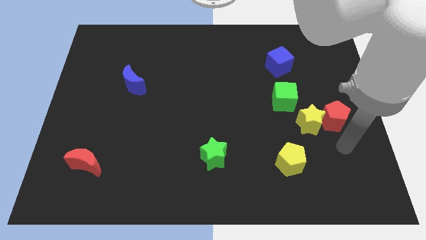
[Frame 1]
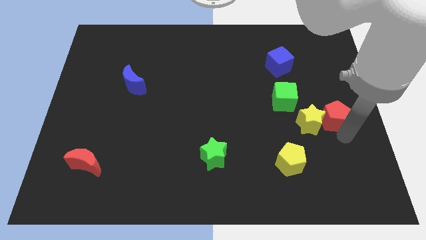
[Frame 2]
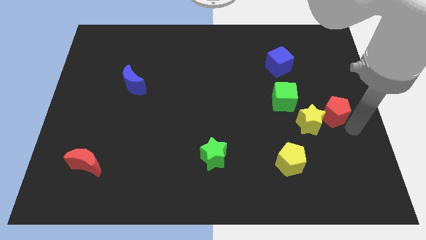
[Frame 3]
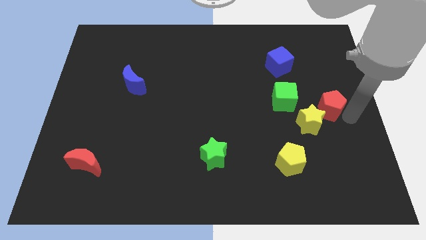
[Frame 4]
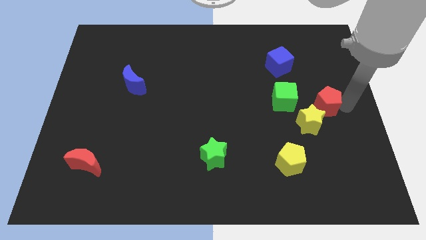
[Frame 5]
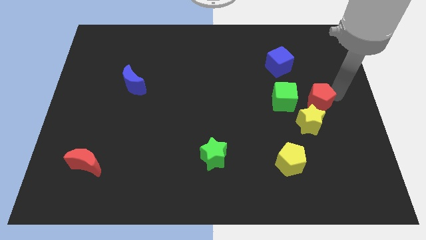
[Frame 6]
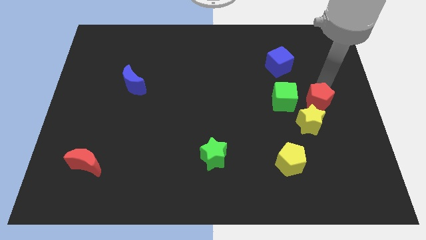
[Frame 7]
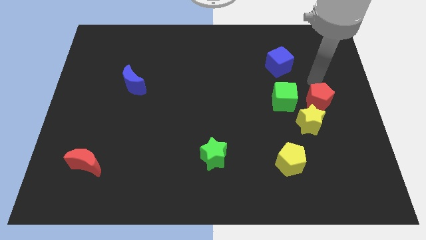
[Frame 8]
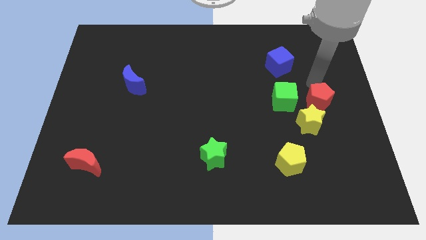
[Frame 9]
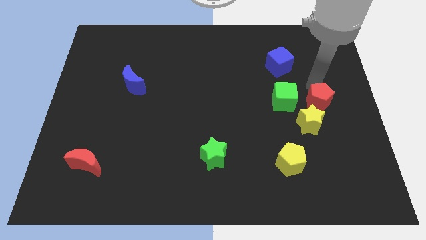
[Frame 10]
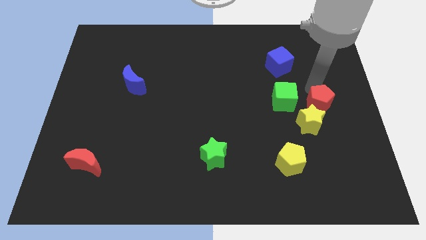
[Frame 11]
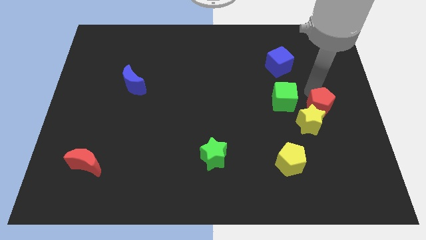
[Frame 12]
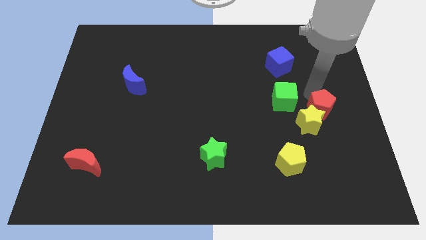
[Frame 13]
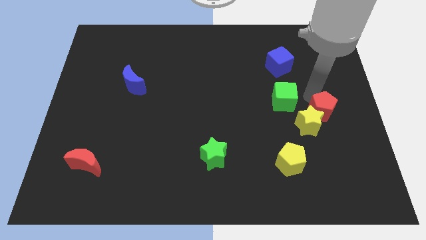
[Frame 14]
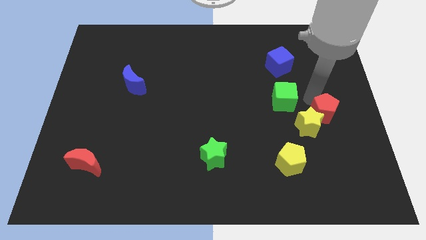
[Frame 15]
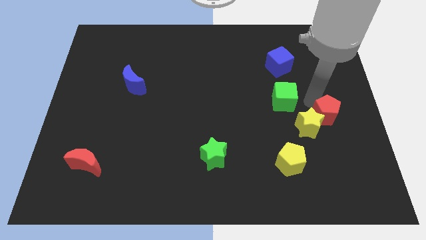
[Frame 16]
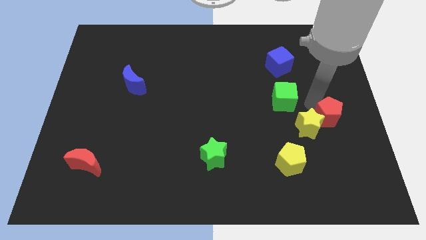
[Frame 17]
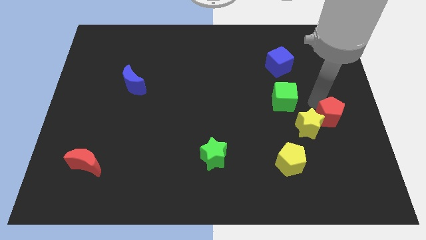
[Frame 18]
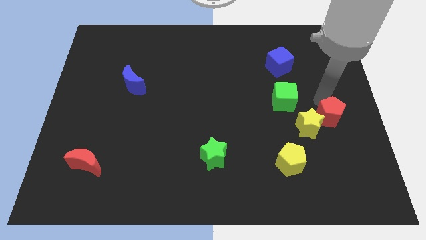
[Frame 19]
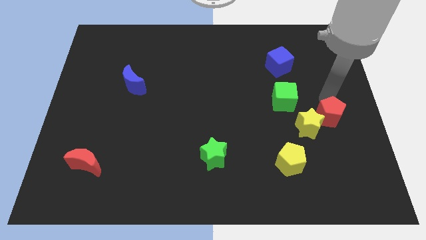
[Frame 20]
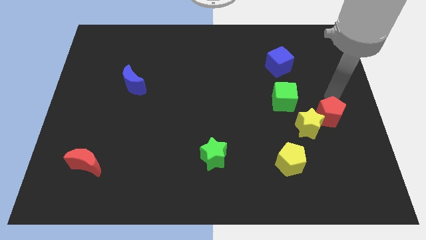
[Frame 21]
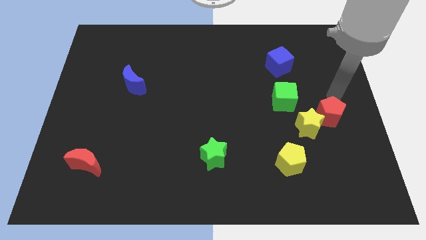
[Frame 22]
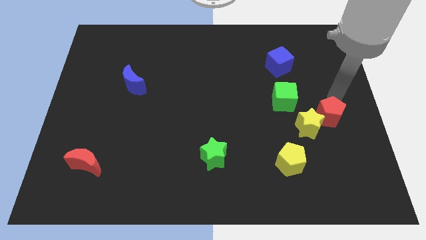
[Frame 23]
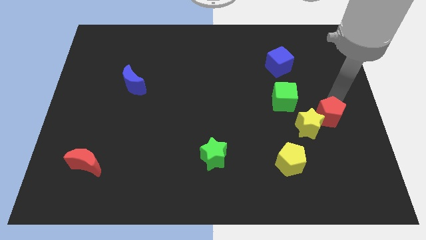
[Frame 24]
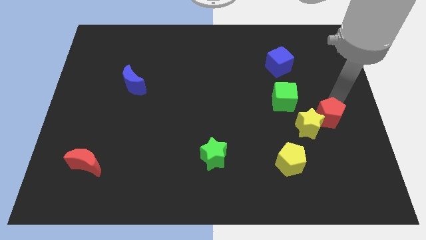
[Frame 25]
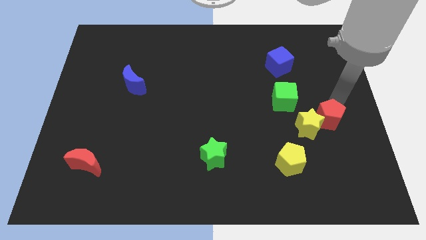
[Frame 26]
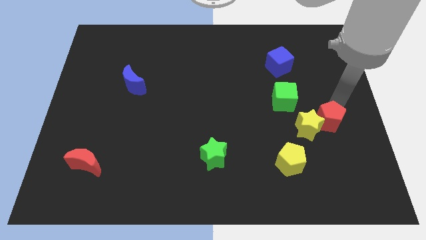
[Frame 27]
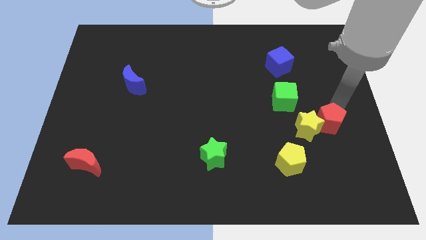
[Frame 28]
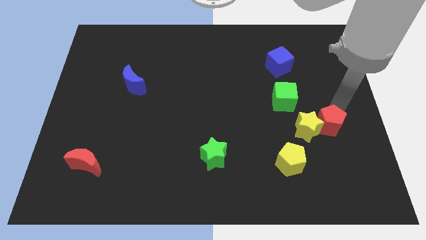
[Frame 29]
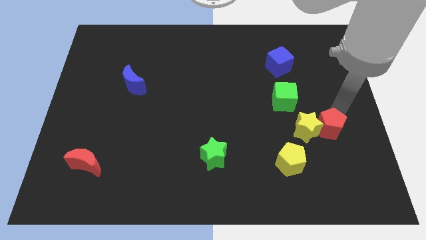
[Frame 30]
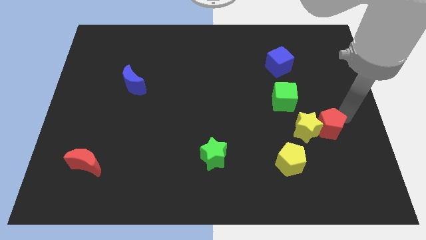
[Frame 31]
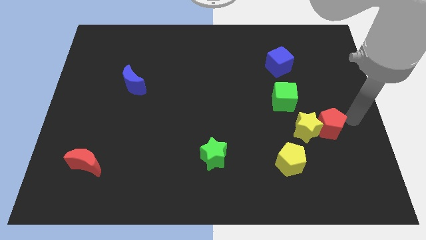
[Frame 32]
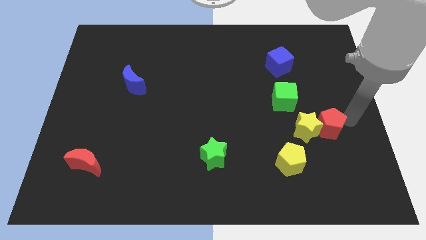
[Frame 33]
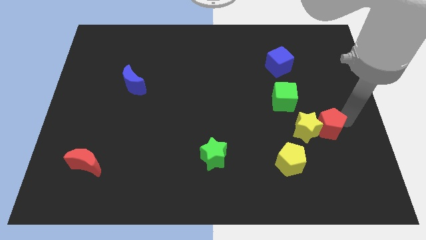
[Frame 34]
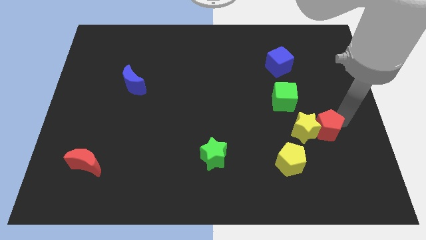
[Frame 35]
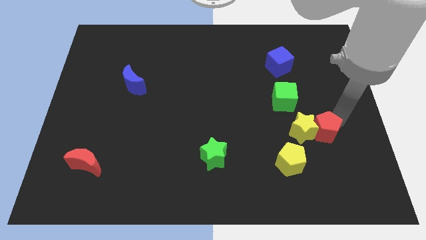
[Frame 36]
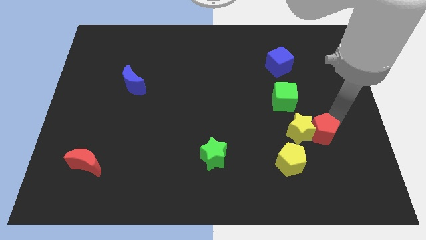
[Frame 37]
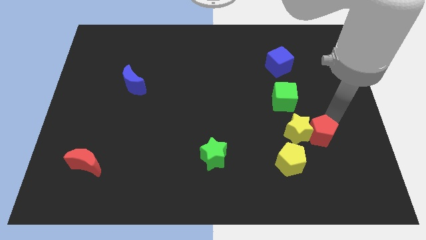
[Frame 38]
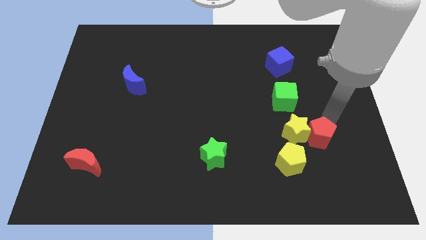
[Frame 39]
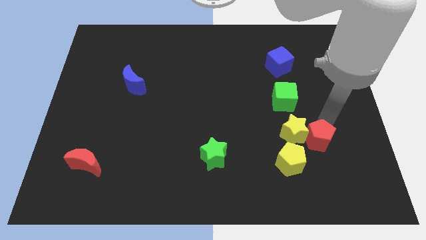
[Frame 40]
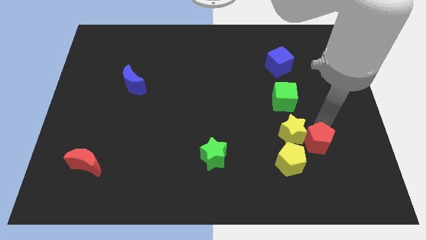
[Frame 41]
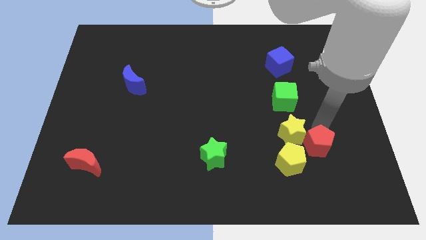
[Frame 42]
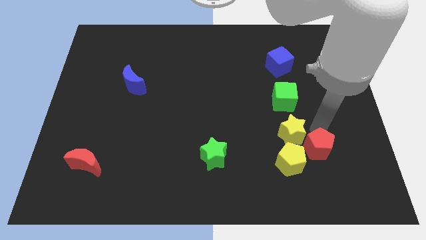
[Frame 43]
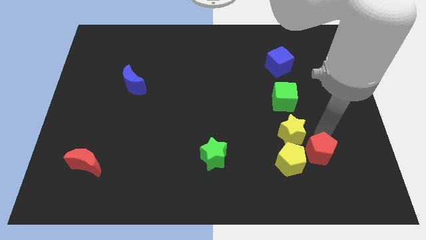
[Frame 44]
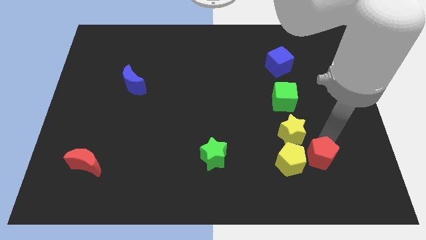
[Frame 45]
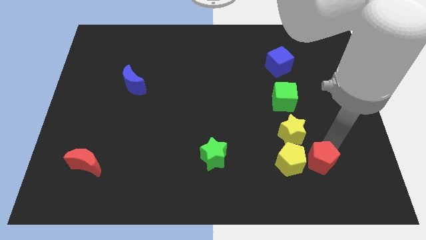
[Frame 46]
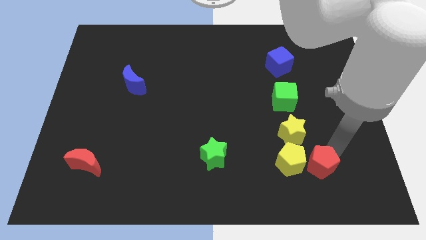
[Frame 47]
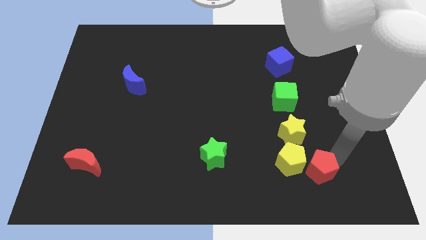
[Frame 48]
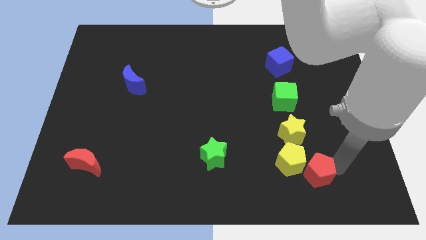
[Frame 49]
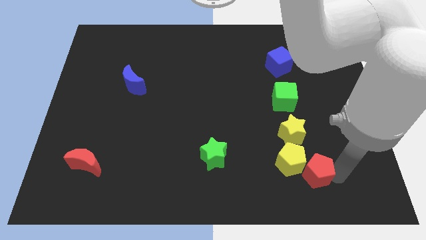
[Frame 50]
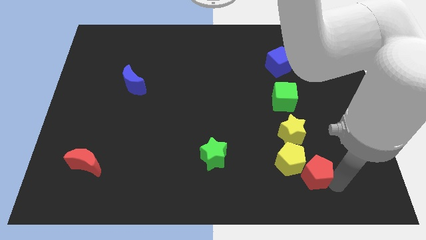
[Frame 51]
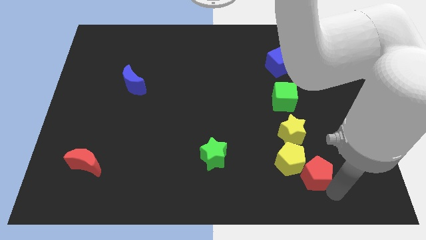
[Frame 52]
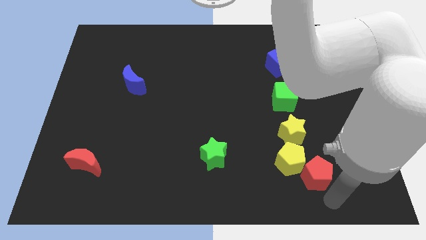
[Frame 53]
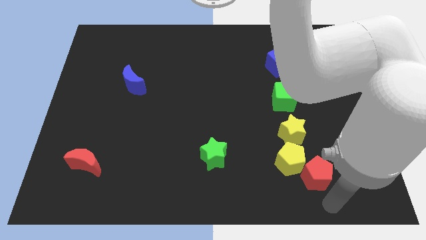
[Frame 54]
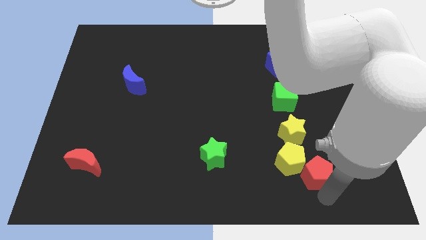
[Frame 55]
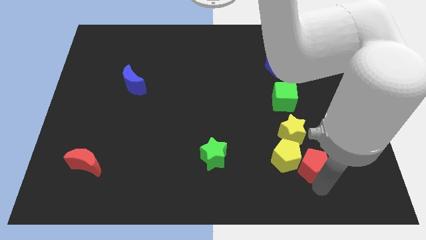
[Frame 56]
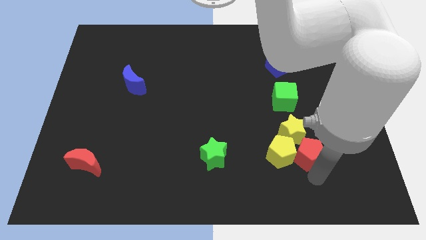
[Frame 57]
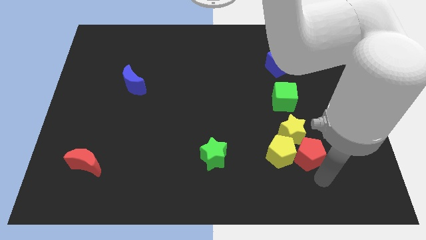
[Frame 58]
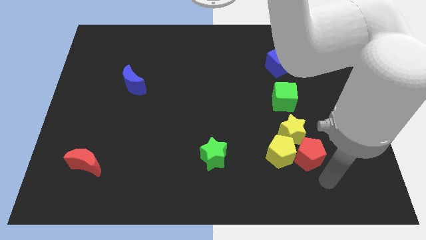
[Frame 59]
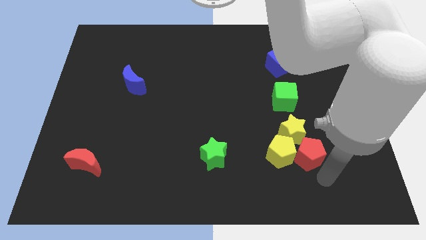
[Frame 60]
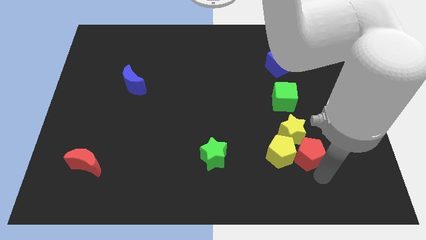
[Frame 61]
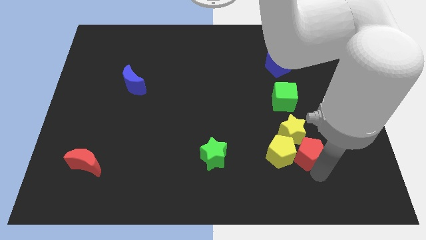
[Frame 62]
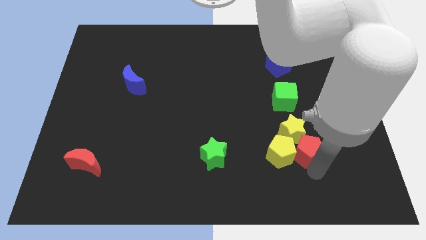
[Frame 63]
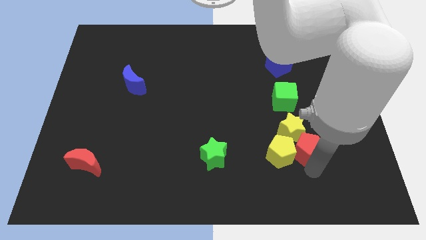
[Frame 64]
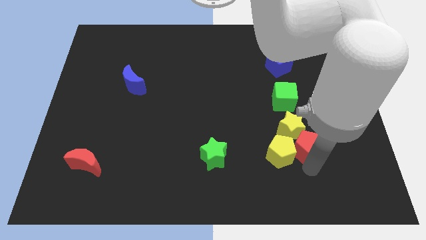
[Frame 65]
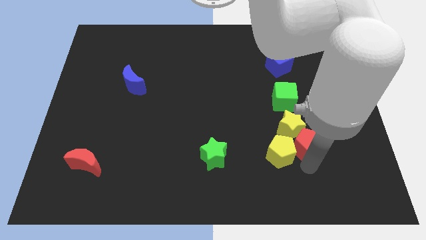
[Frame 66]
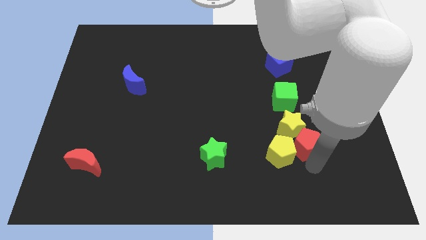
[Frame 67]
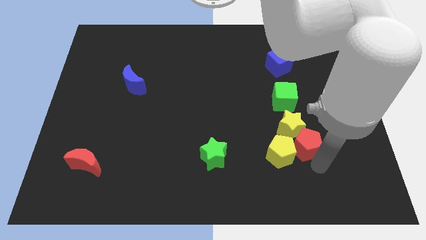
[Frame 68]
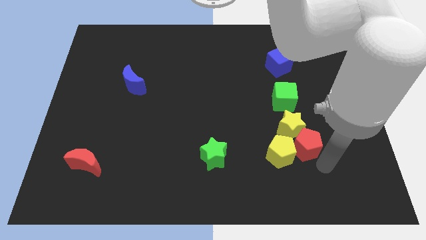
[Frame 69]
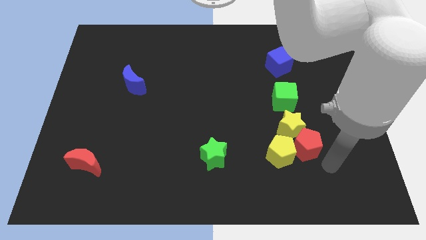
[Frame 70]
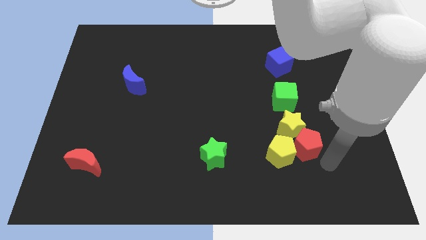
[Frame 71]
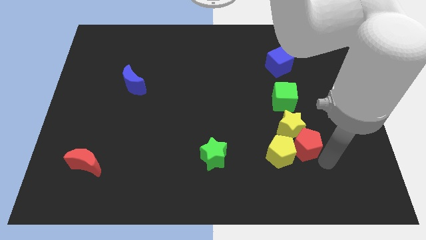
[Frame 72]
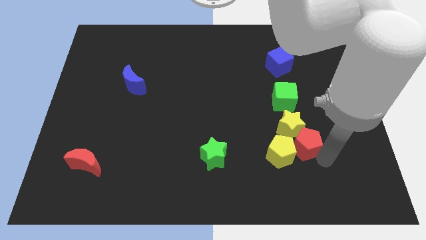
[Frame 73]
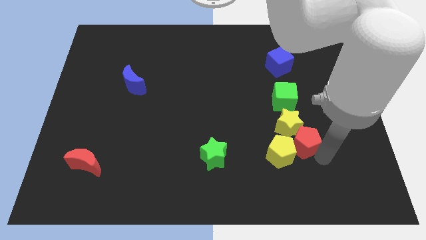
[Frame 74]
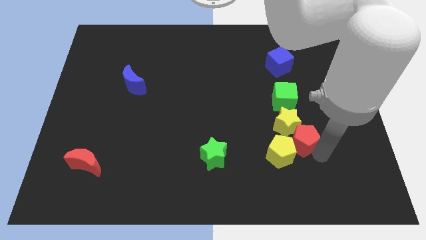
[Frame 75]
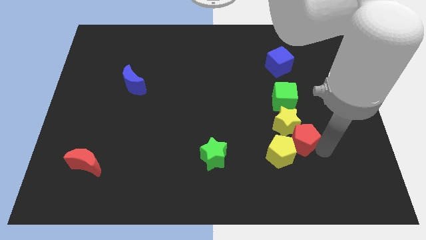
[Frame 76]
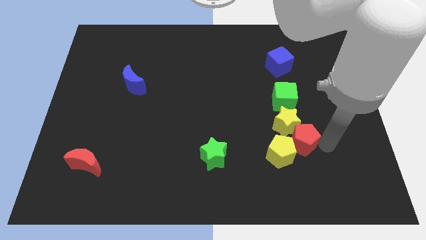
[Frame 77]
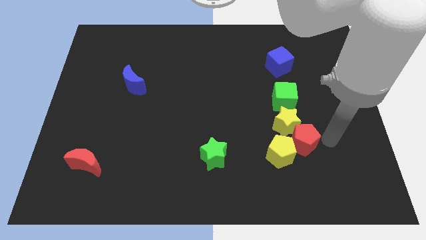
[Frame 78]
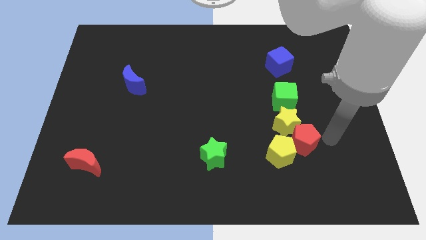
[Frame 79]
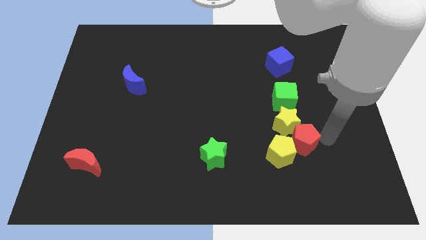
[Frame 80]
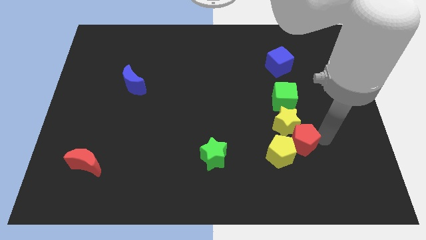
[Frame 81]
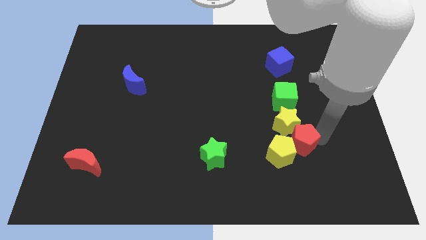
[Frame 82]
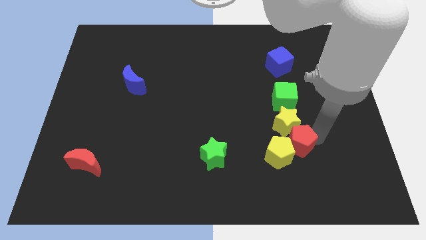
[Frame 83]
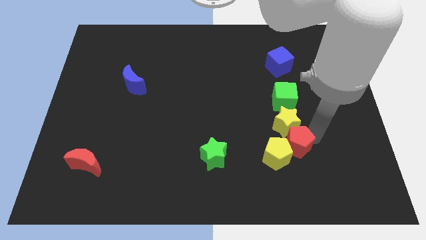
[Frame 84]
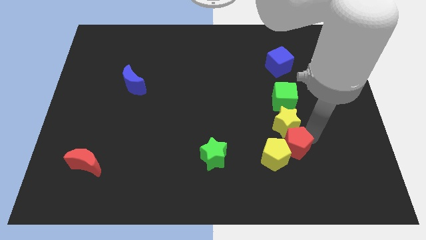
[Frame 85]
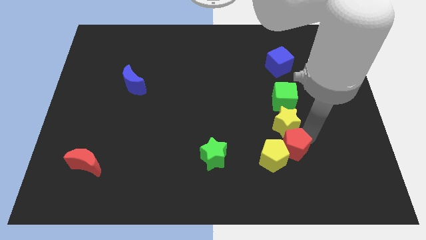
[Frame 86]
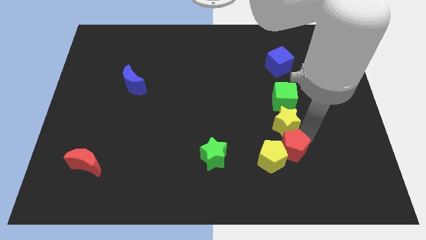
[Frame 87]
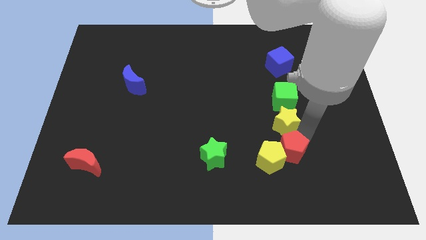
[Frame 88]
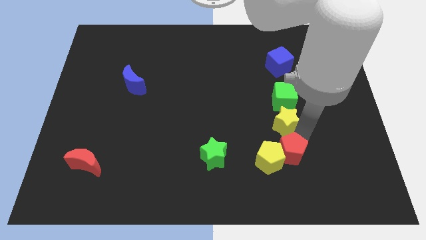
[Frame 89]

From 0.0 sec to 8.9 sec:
push the red pentagon to the right side of the green star
